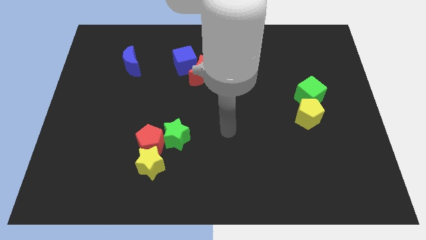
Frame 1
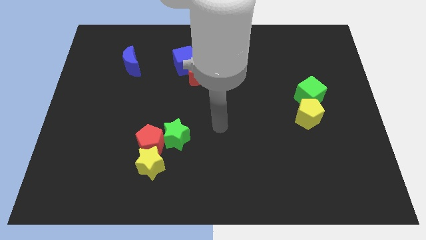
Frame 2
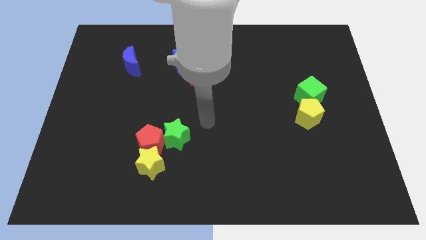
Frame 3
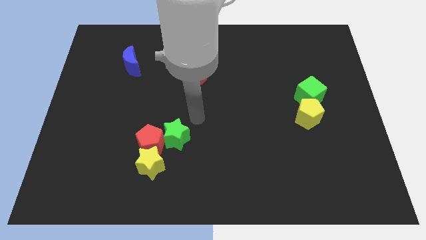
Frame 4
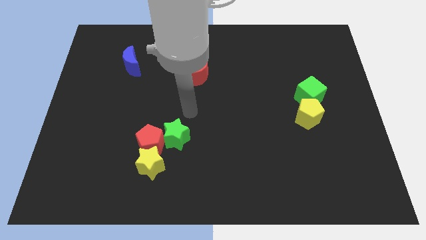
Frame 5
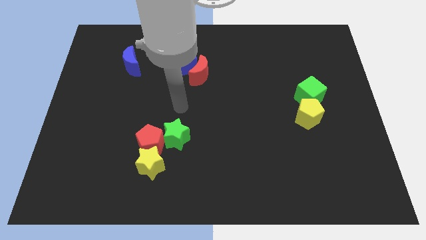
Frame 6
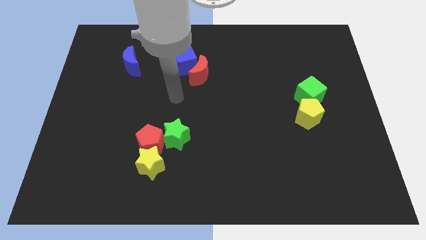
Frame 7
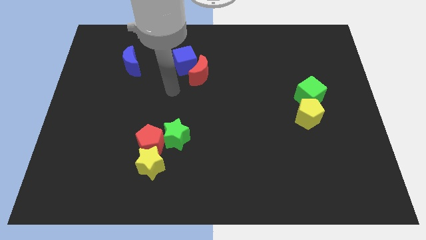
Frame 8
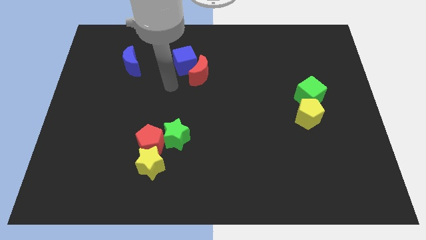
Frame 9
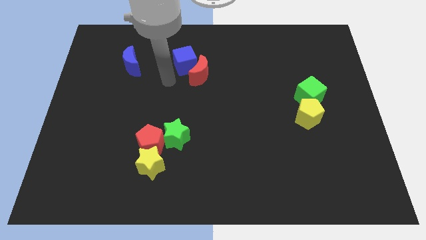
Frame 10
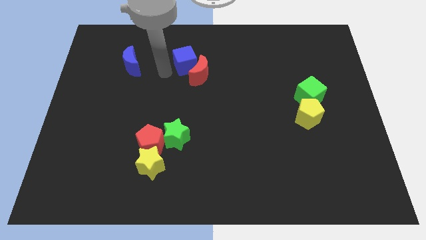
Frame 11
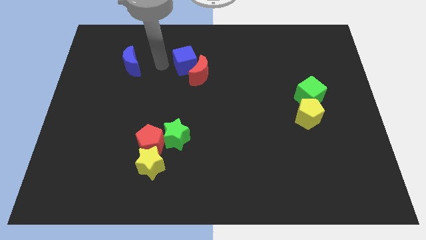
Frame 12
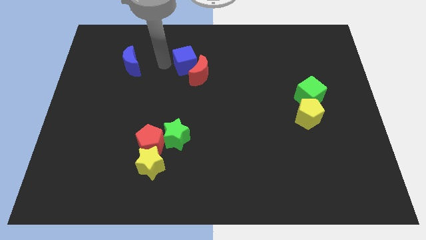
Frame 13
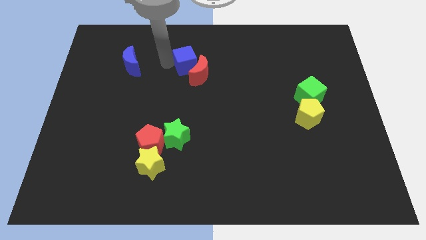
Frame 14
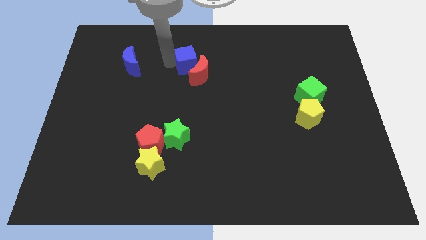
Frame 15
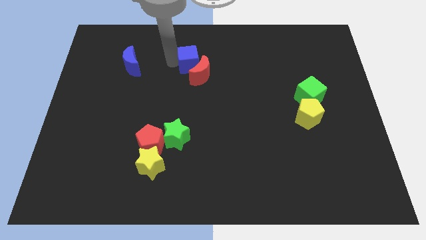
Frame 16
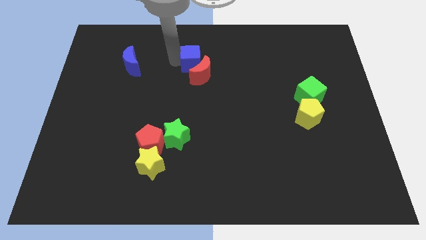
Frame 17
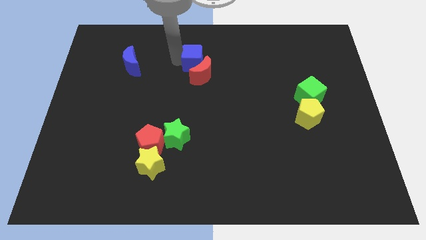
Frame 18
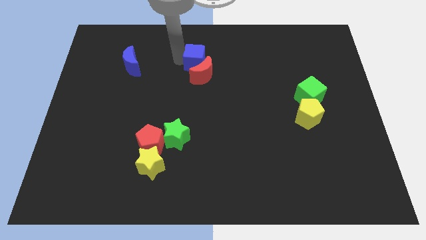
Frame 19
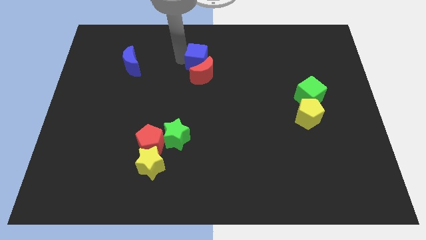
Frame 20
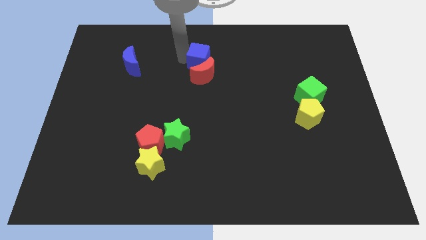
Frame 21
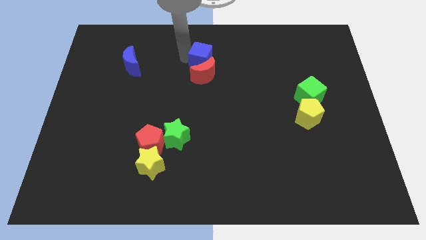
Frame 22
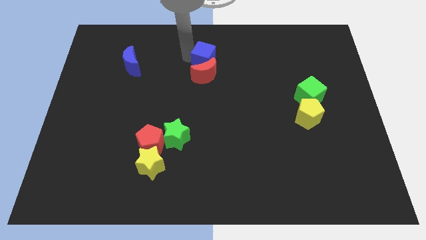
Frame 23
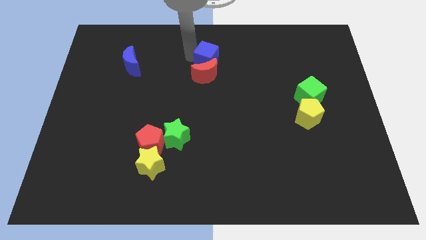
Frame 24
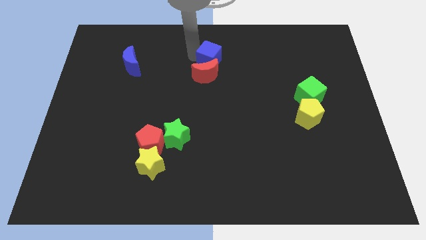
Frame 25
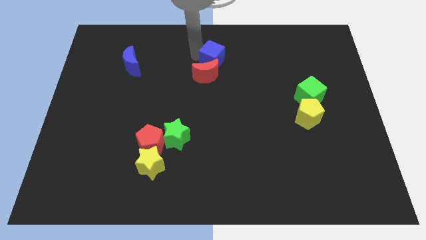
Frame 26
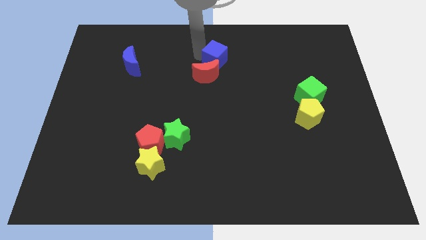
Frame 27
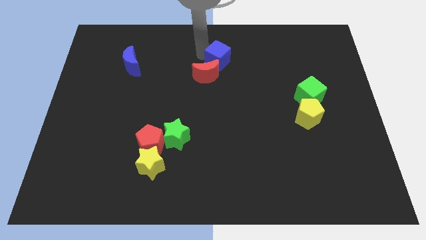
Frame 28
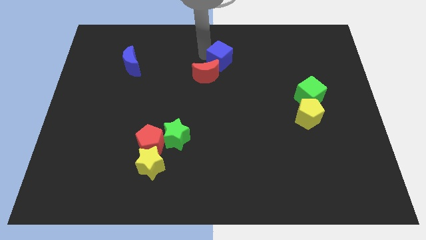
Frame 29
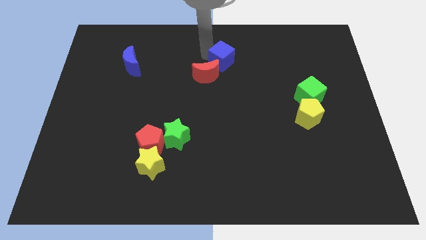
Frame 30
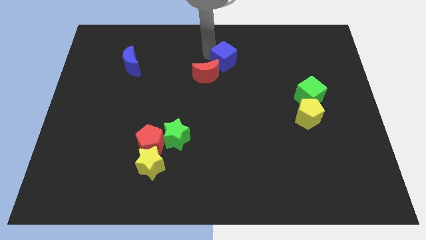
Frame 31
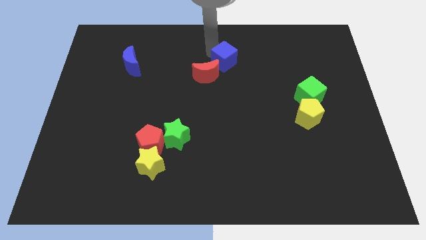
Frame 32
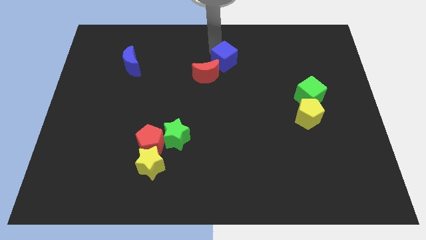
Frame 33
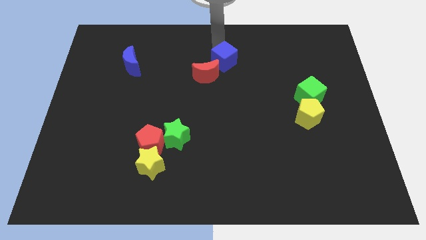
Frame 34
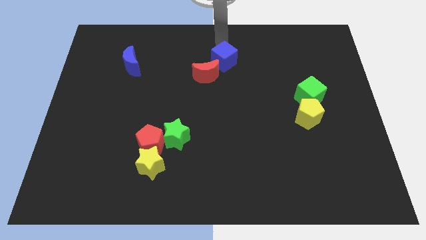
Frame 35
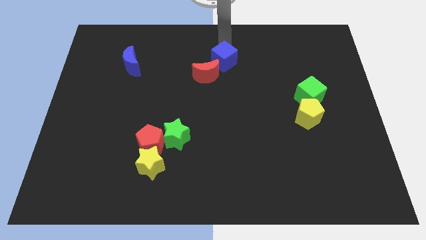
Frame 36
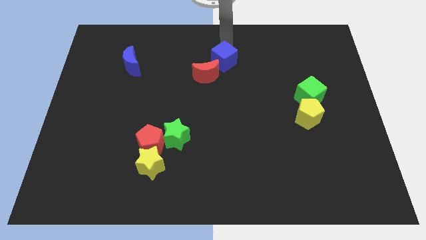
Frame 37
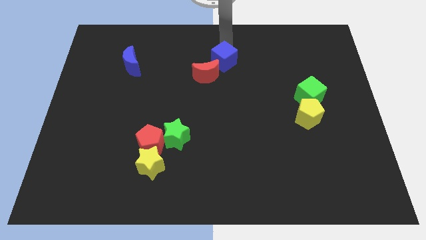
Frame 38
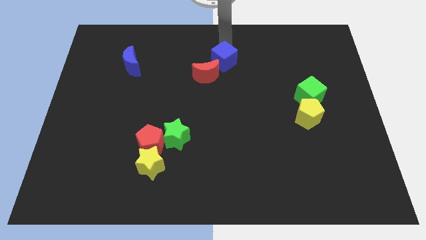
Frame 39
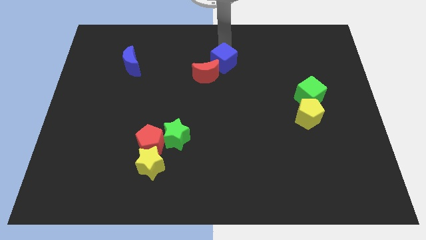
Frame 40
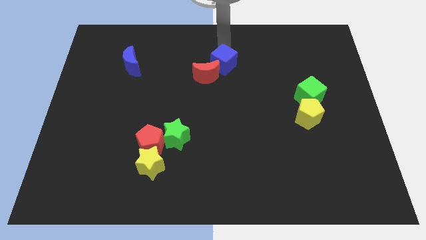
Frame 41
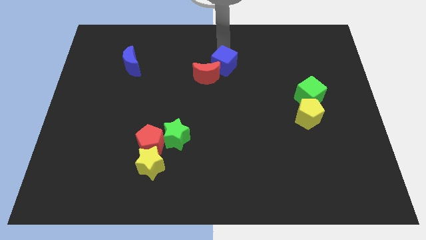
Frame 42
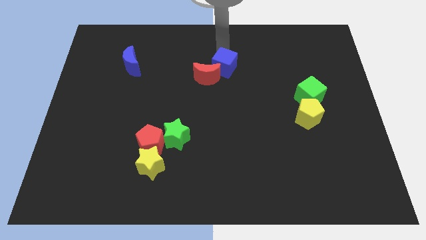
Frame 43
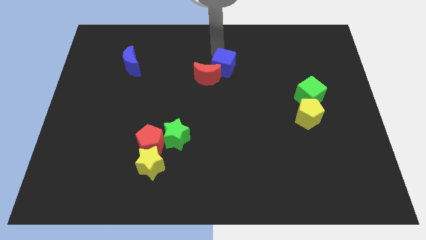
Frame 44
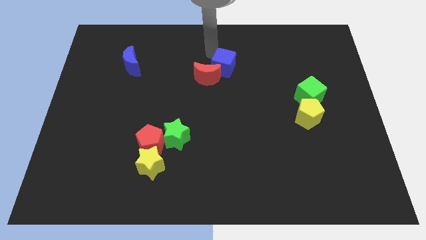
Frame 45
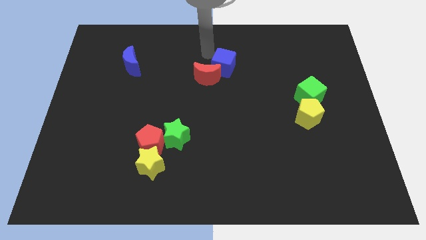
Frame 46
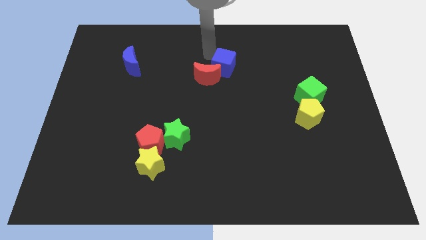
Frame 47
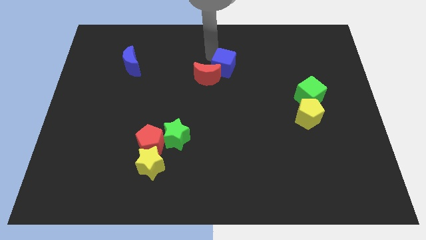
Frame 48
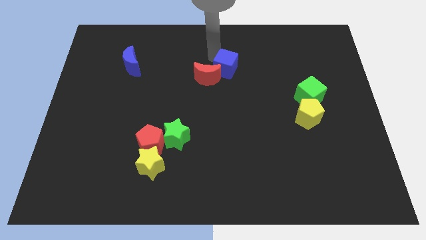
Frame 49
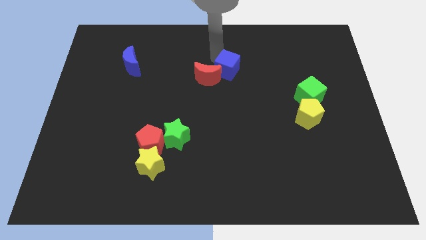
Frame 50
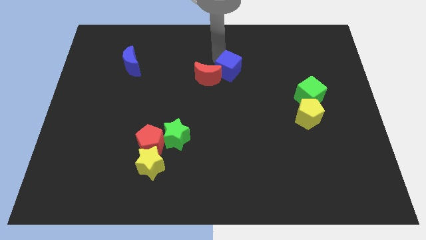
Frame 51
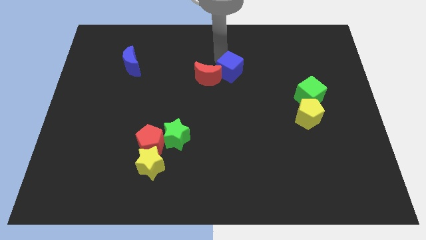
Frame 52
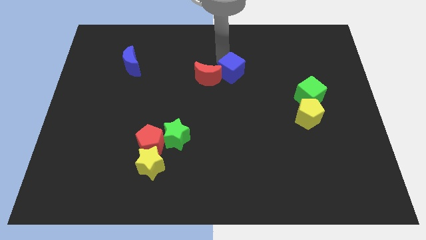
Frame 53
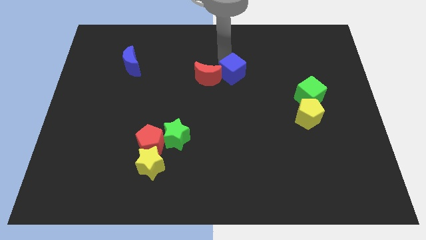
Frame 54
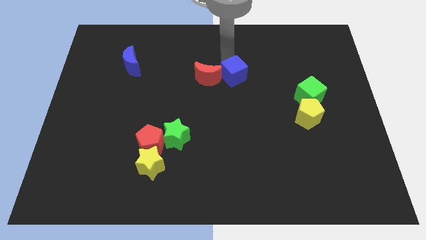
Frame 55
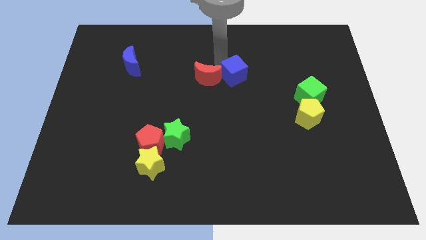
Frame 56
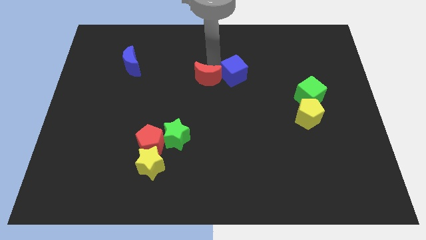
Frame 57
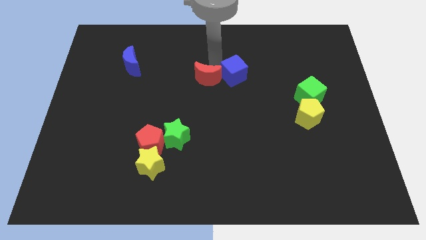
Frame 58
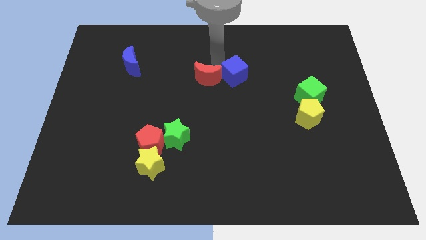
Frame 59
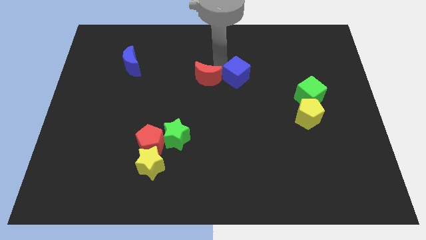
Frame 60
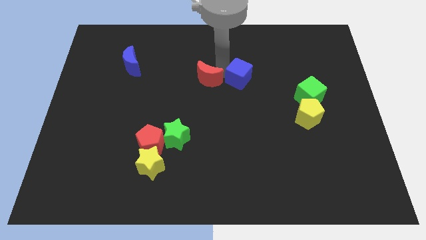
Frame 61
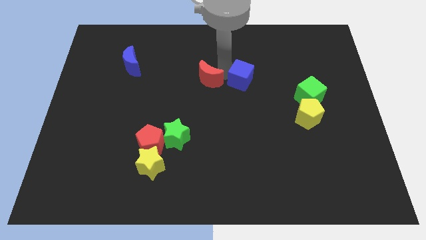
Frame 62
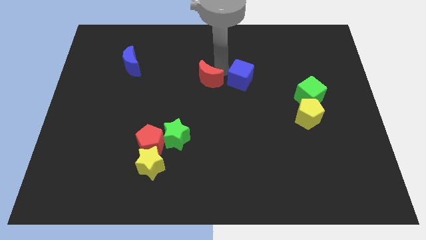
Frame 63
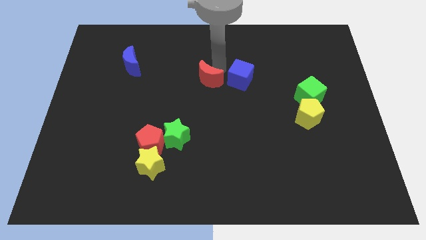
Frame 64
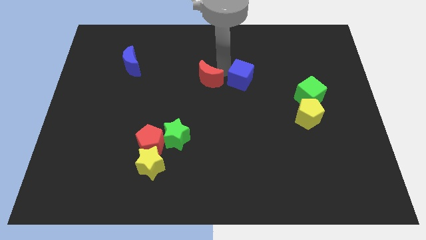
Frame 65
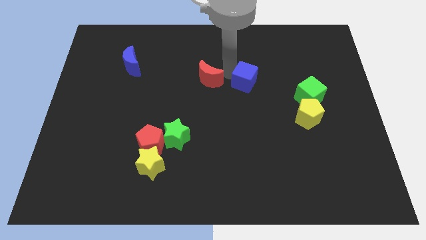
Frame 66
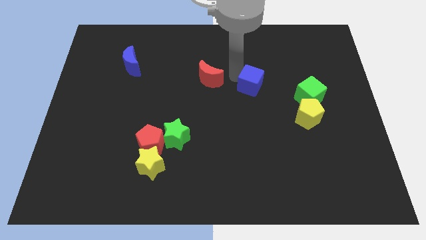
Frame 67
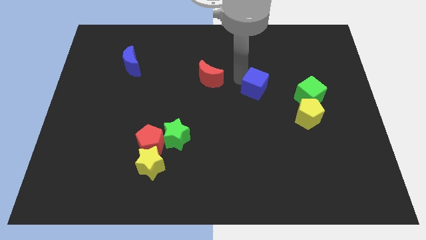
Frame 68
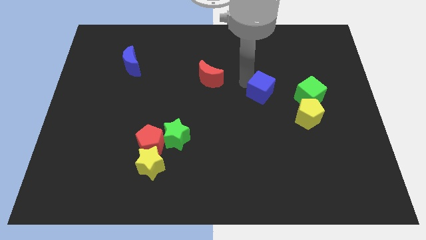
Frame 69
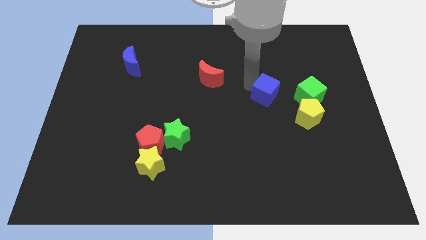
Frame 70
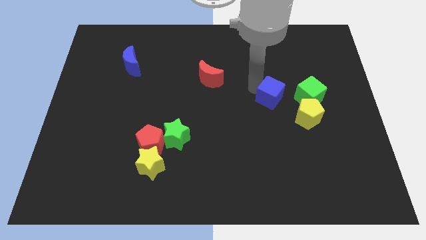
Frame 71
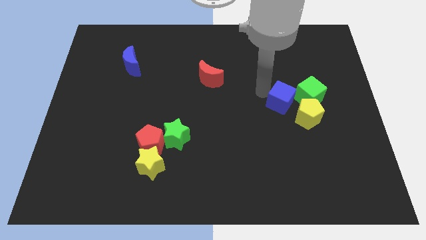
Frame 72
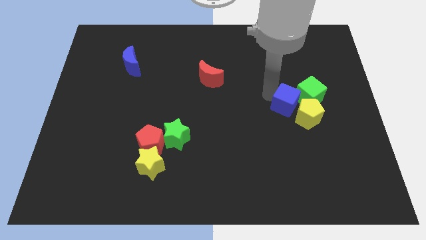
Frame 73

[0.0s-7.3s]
put the blue cube close to the yellow pentagon
